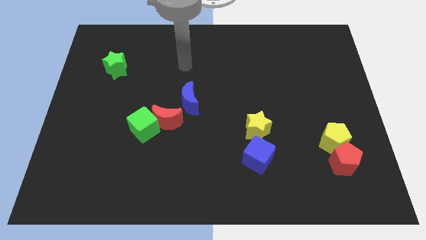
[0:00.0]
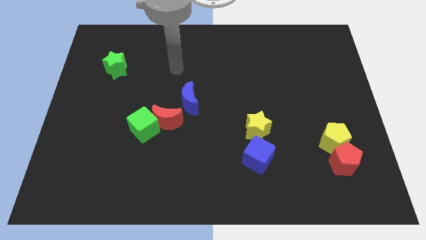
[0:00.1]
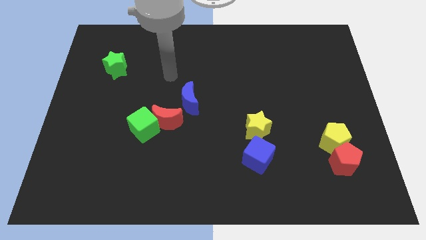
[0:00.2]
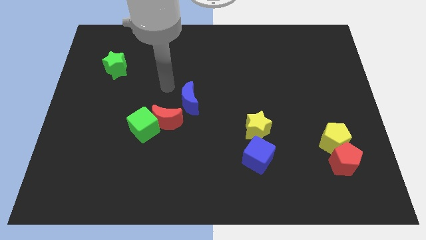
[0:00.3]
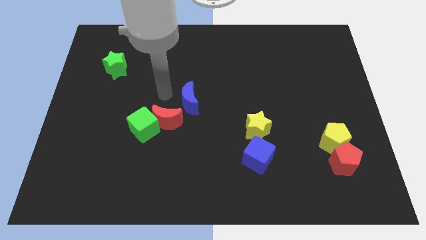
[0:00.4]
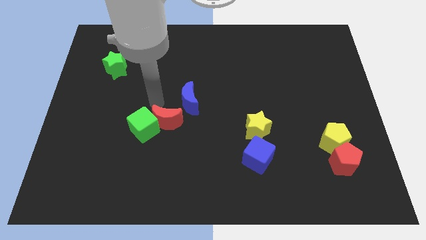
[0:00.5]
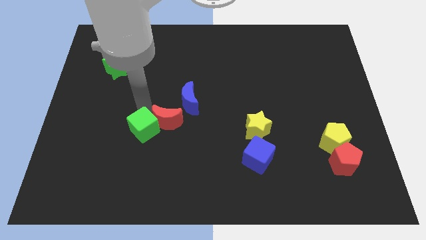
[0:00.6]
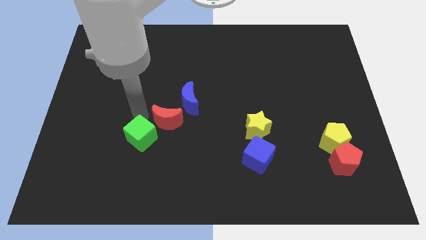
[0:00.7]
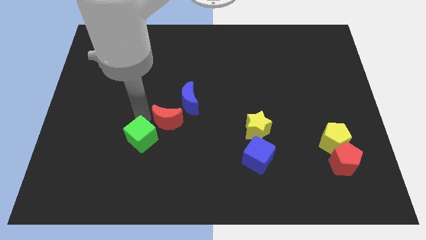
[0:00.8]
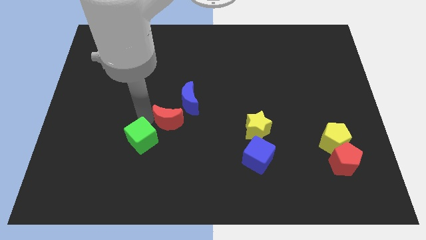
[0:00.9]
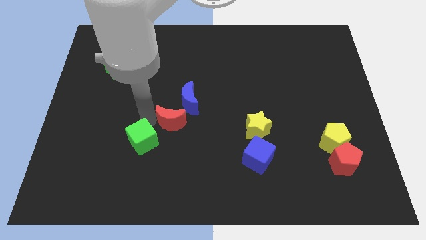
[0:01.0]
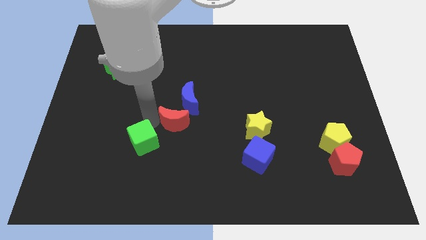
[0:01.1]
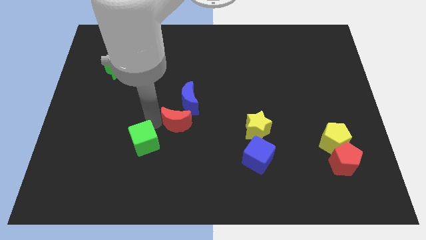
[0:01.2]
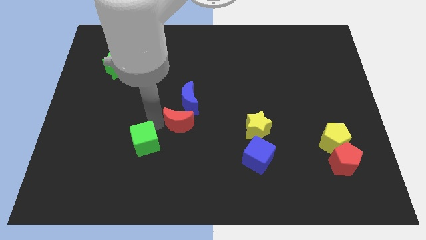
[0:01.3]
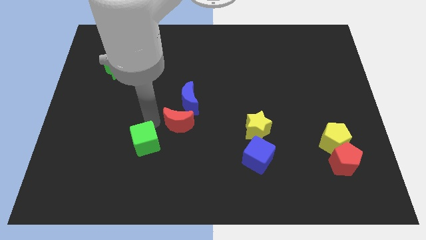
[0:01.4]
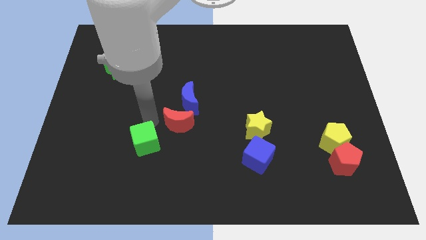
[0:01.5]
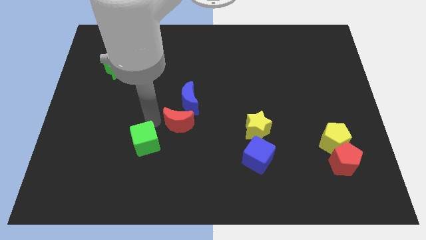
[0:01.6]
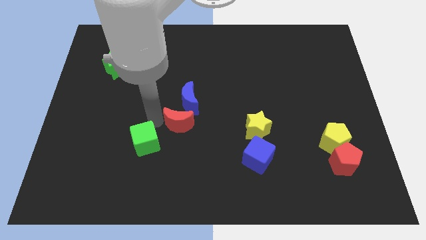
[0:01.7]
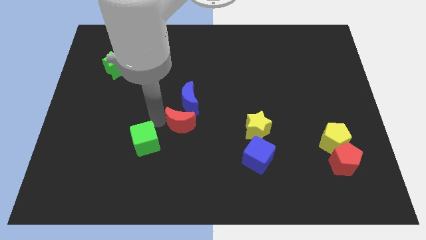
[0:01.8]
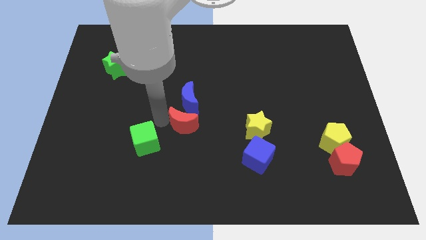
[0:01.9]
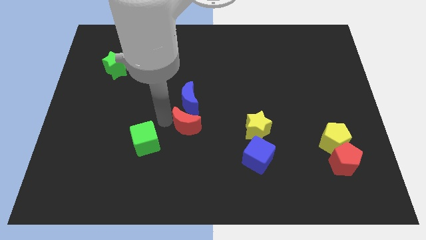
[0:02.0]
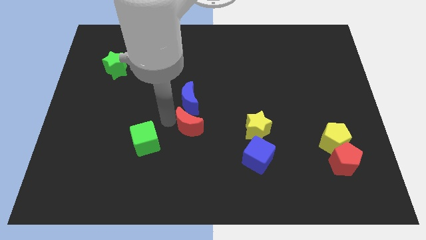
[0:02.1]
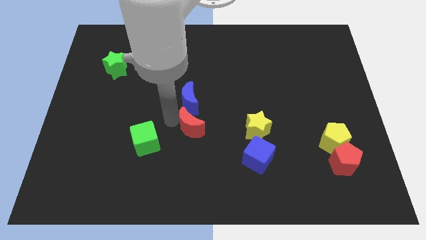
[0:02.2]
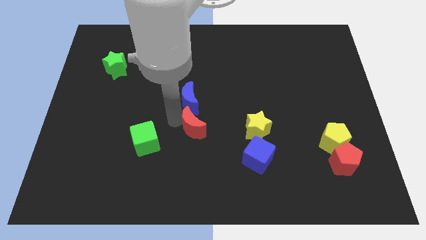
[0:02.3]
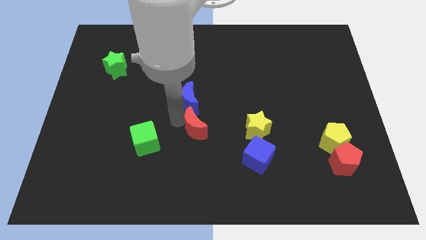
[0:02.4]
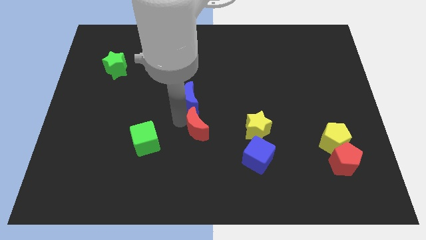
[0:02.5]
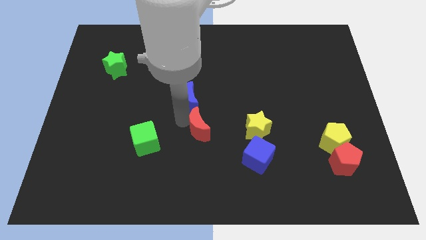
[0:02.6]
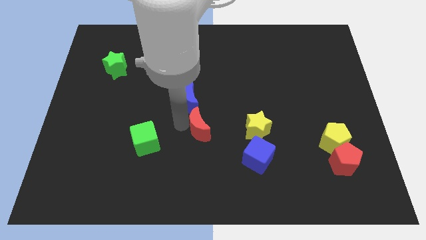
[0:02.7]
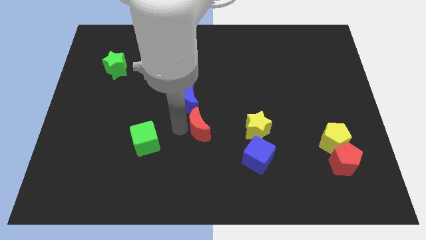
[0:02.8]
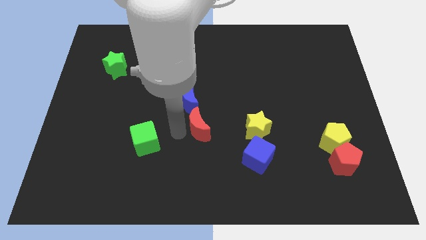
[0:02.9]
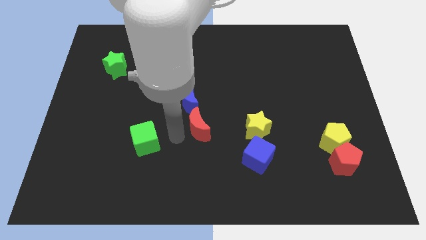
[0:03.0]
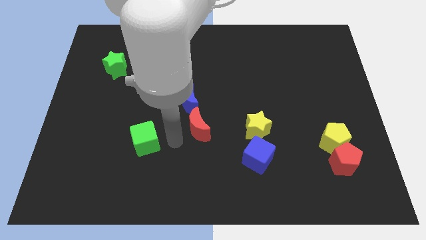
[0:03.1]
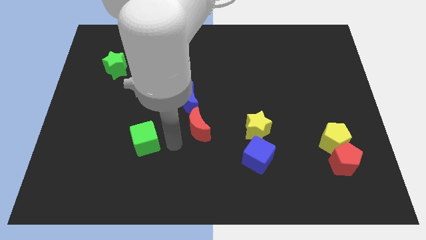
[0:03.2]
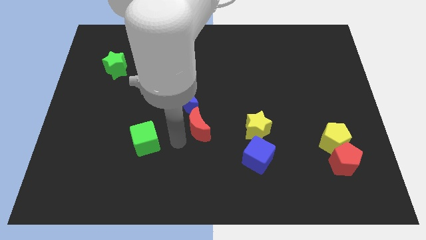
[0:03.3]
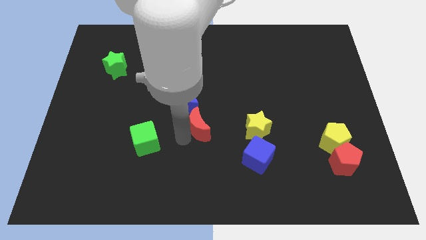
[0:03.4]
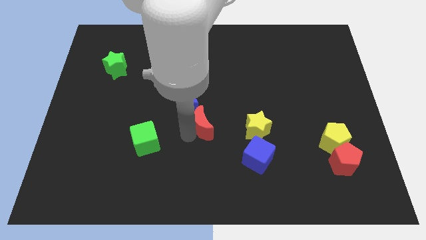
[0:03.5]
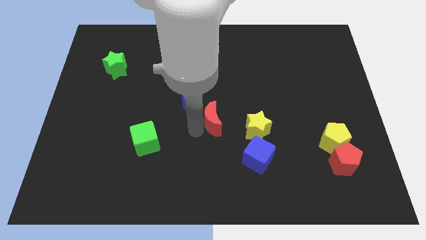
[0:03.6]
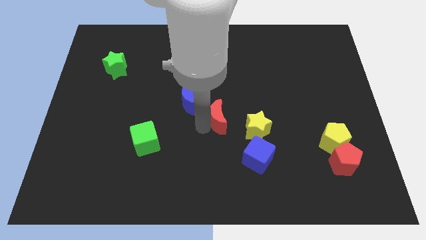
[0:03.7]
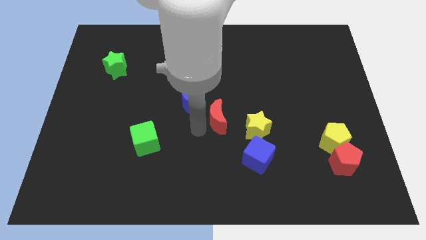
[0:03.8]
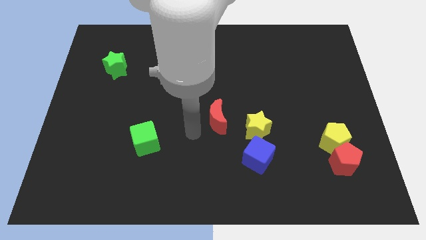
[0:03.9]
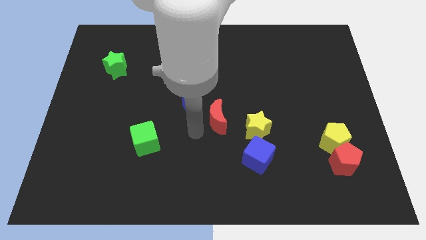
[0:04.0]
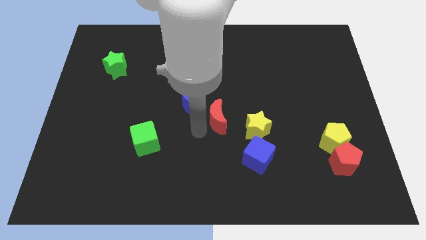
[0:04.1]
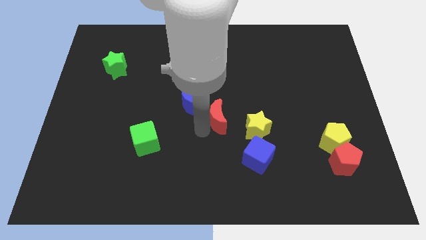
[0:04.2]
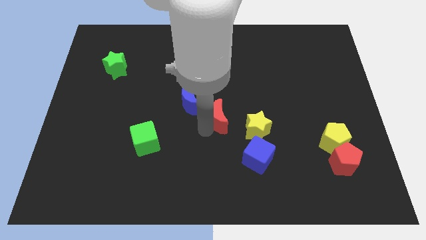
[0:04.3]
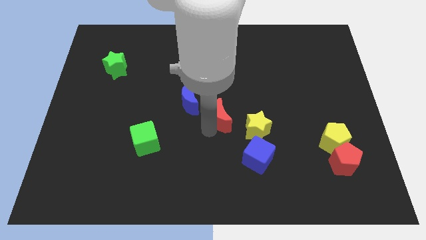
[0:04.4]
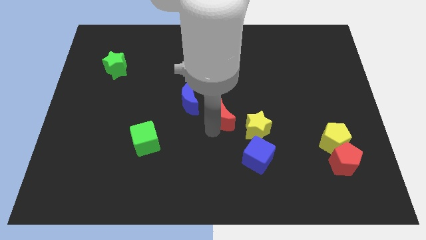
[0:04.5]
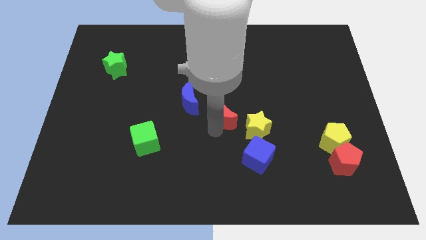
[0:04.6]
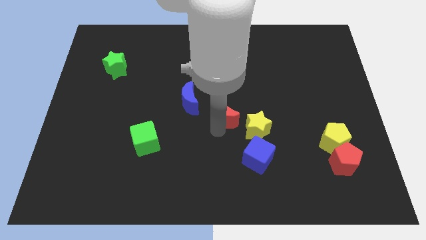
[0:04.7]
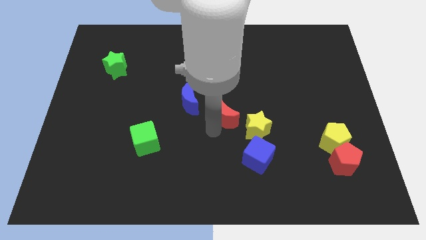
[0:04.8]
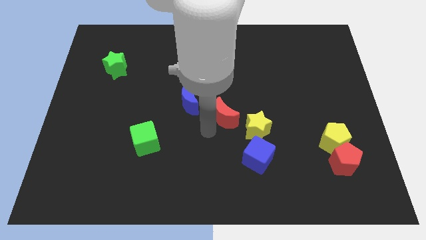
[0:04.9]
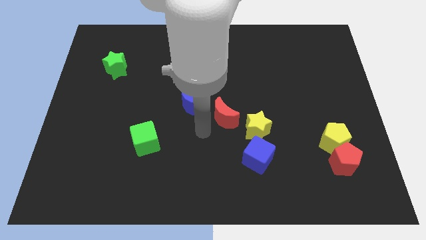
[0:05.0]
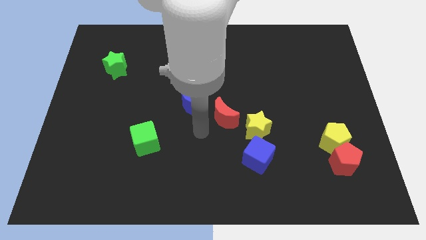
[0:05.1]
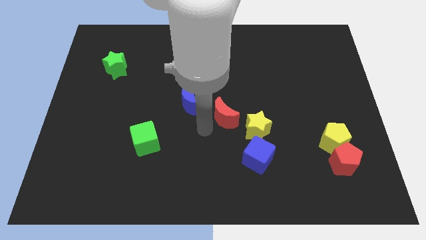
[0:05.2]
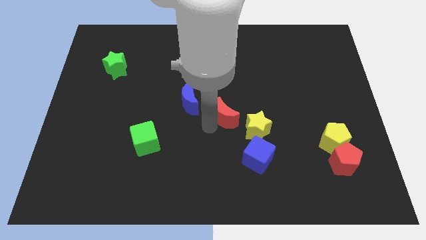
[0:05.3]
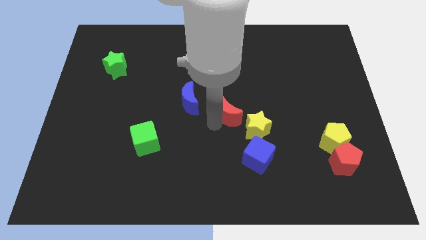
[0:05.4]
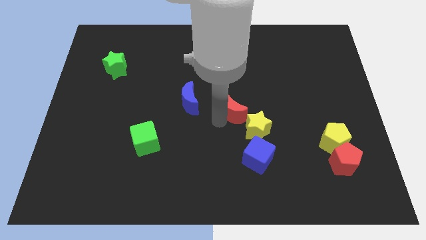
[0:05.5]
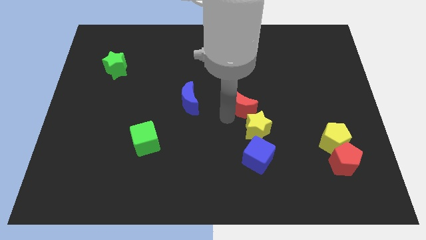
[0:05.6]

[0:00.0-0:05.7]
put the red moon above the yellow star

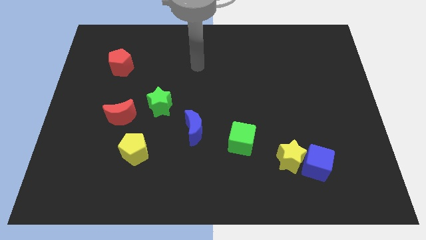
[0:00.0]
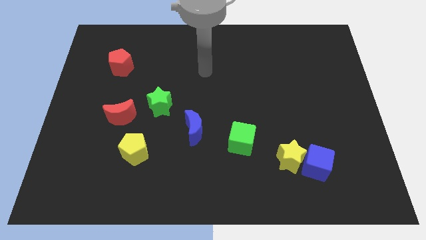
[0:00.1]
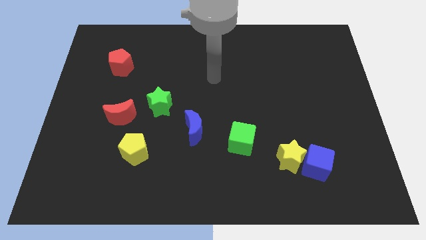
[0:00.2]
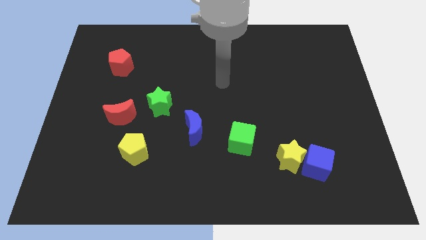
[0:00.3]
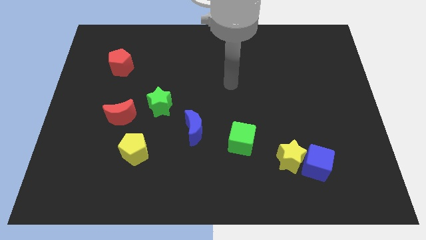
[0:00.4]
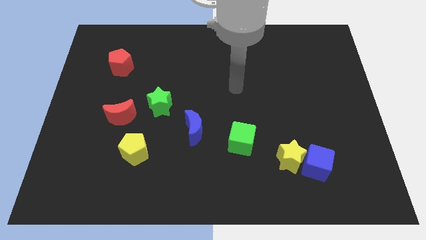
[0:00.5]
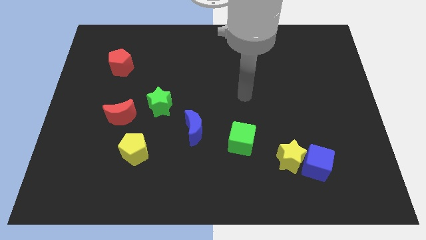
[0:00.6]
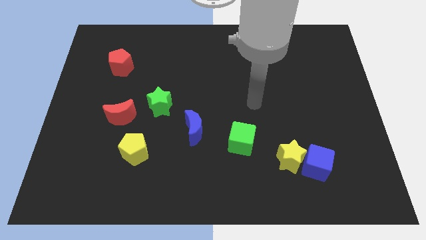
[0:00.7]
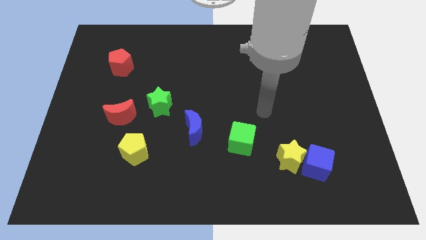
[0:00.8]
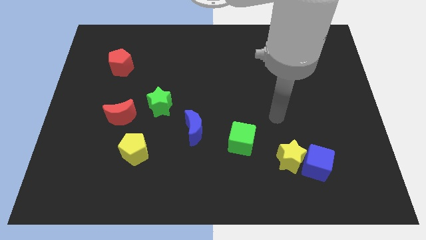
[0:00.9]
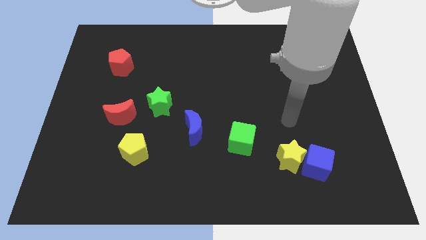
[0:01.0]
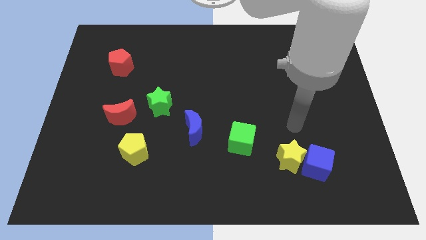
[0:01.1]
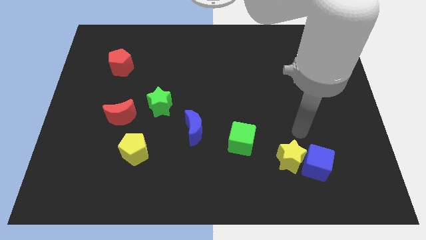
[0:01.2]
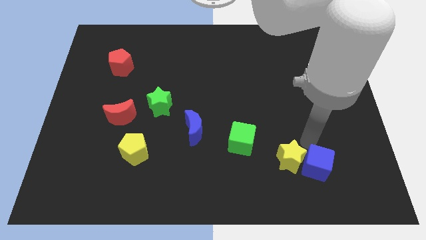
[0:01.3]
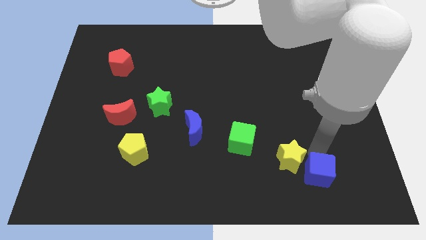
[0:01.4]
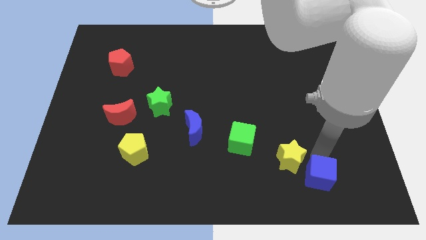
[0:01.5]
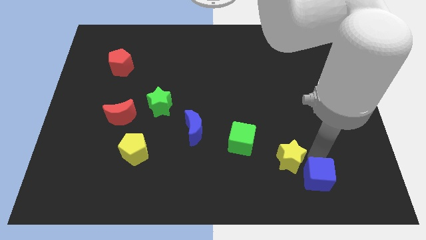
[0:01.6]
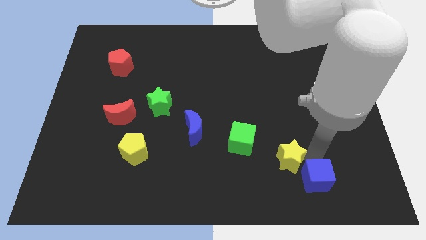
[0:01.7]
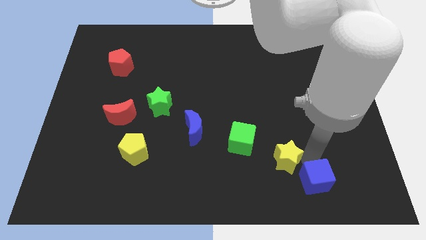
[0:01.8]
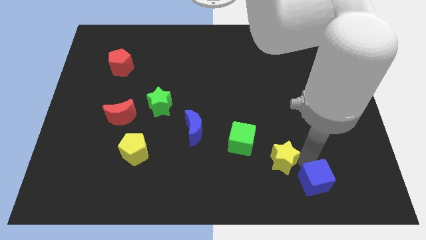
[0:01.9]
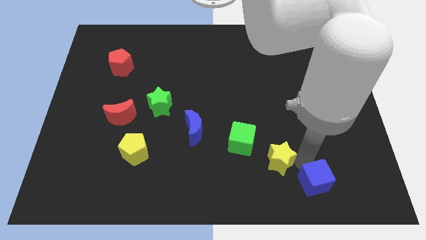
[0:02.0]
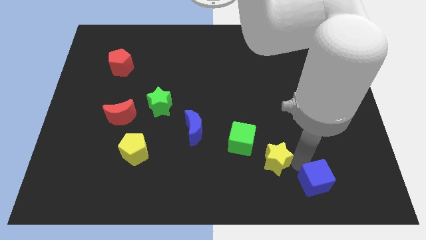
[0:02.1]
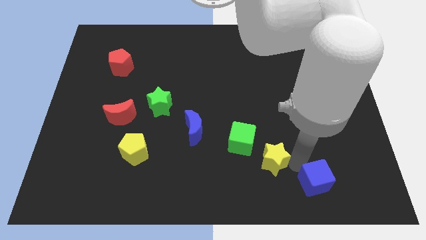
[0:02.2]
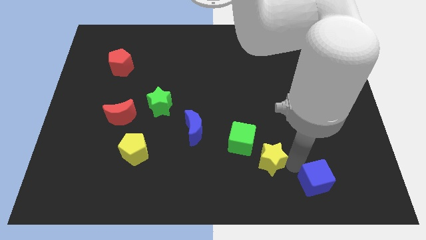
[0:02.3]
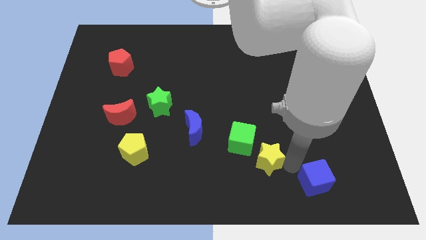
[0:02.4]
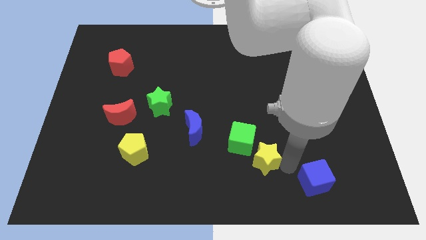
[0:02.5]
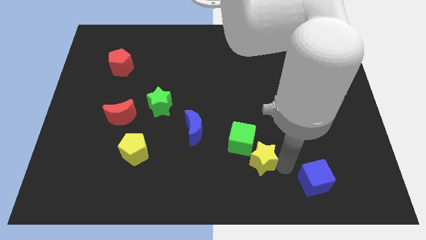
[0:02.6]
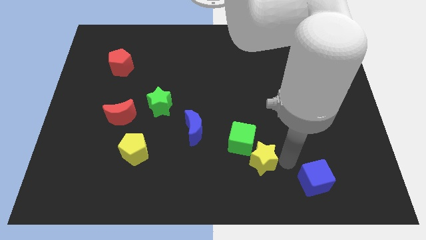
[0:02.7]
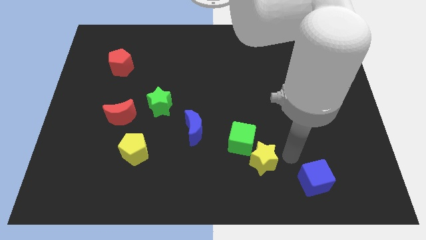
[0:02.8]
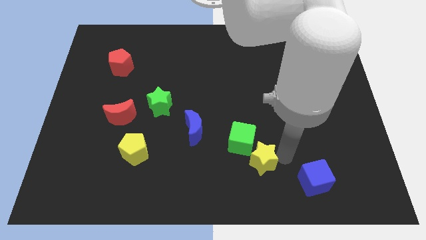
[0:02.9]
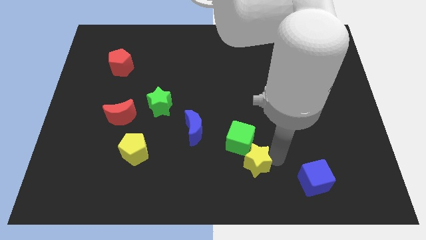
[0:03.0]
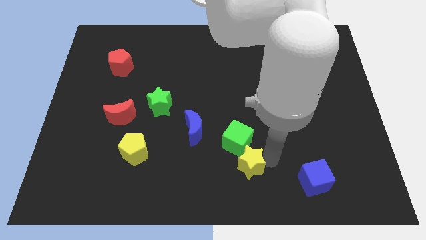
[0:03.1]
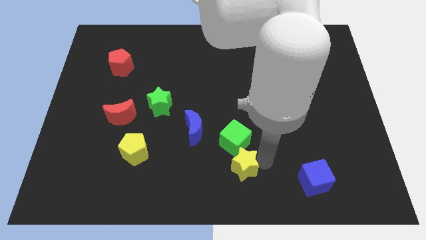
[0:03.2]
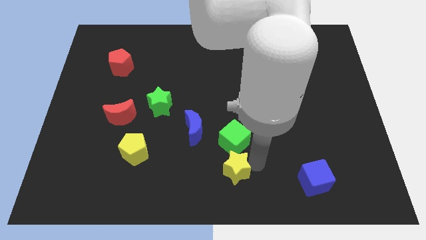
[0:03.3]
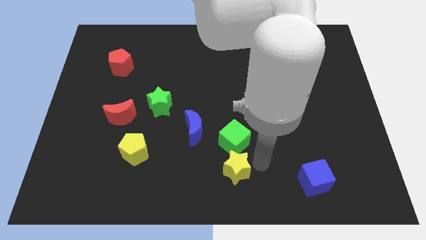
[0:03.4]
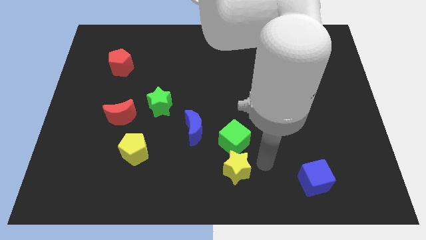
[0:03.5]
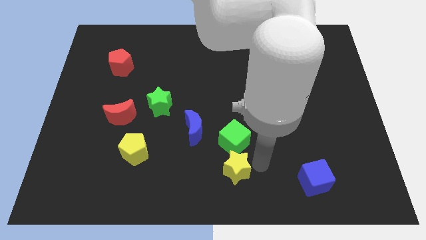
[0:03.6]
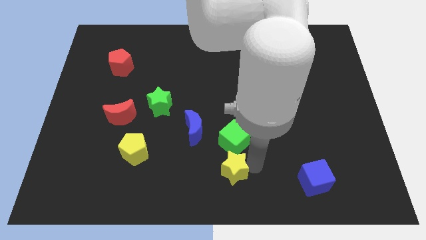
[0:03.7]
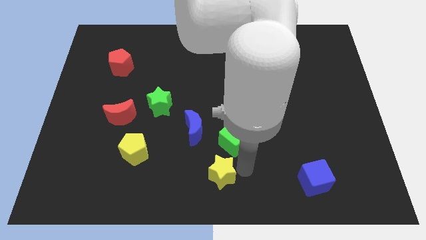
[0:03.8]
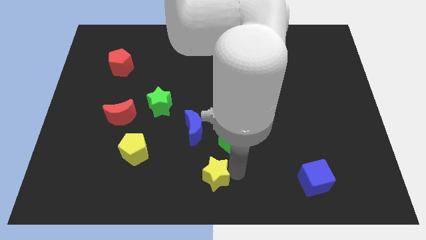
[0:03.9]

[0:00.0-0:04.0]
slide the yellow star below the blue moon
